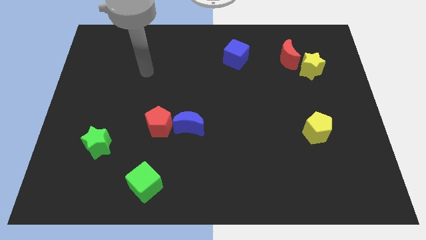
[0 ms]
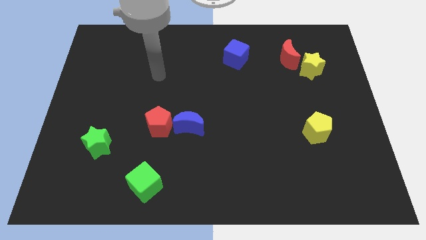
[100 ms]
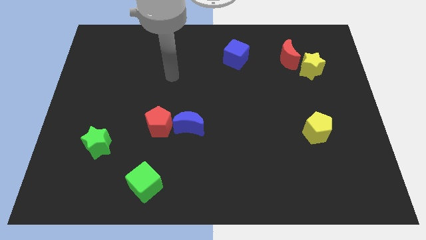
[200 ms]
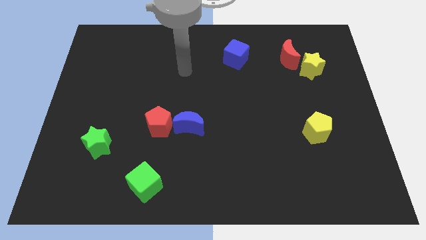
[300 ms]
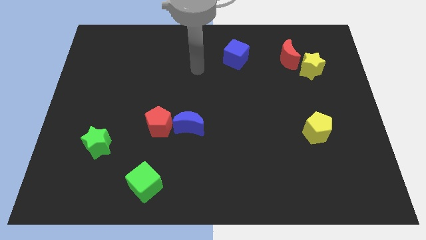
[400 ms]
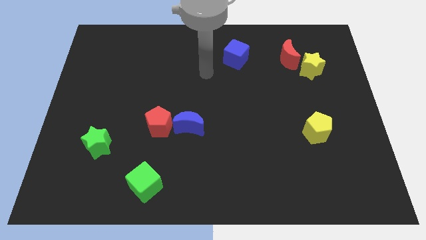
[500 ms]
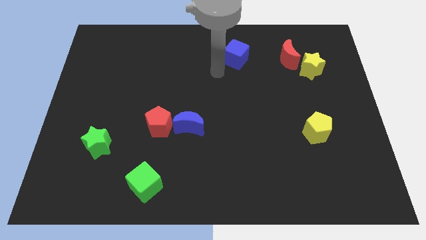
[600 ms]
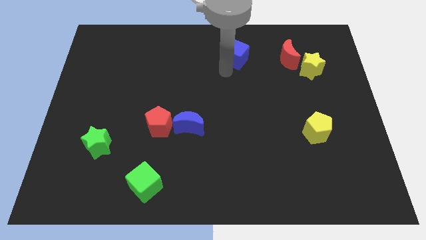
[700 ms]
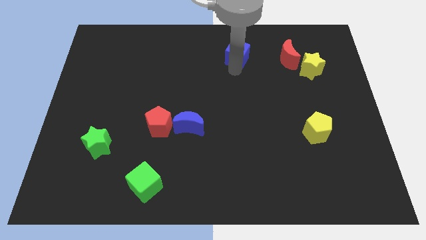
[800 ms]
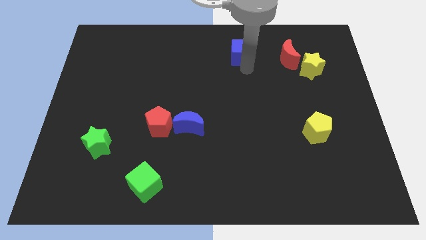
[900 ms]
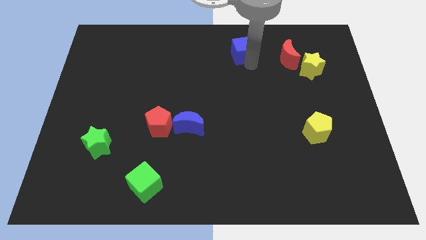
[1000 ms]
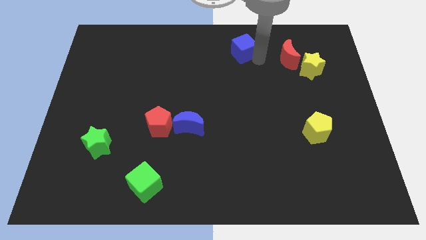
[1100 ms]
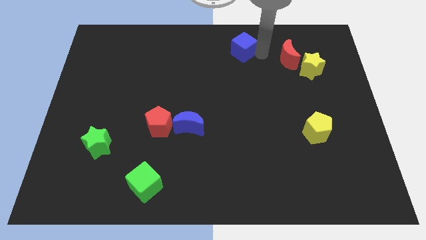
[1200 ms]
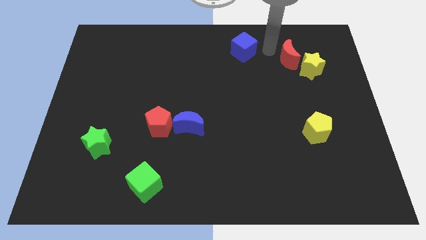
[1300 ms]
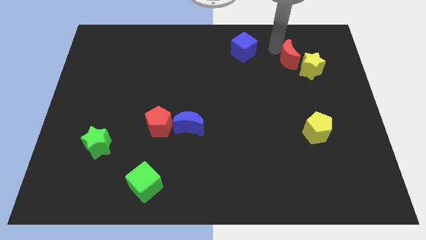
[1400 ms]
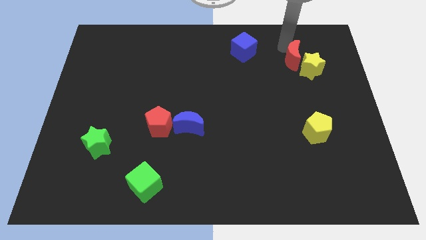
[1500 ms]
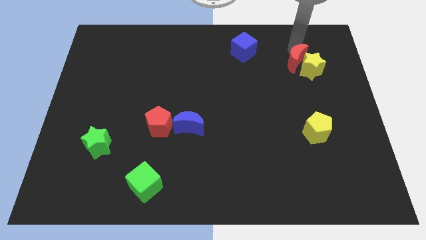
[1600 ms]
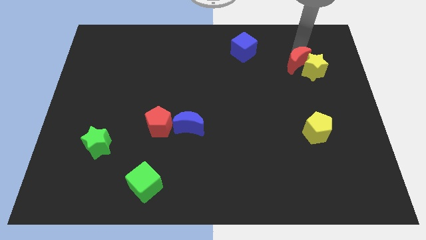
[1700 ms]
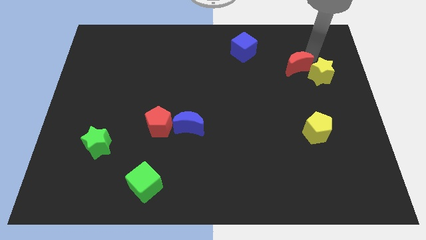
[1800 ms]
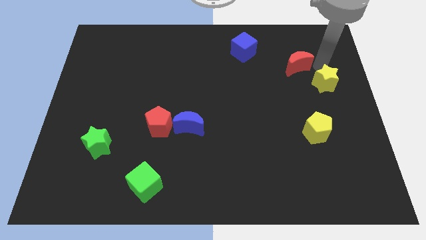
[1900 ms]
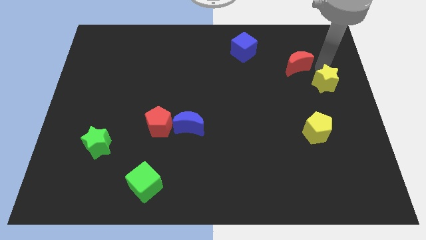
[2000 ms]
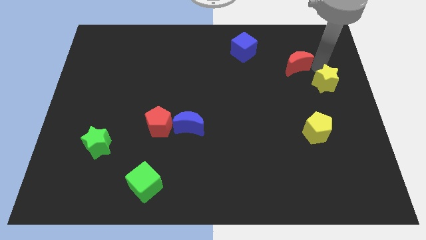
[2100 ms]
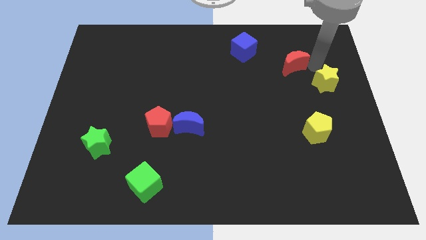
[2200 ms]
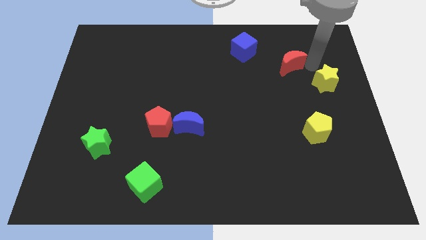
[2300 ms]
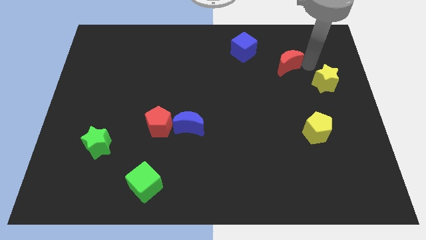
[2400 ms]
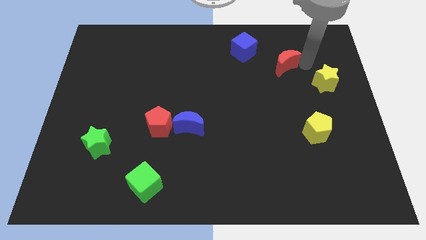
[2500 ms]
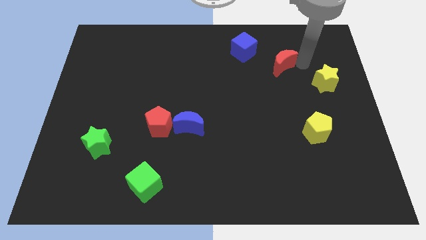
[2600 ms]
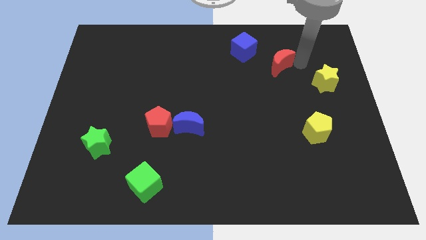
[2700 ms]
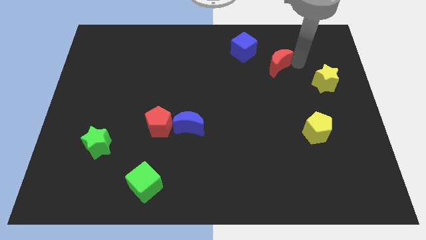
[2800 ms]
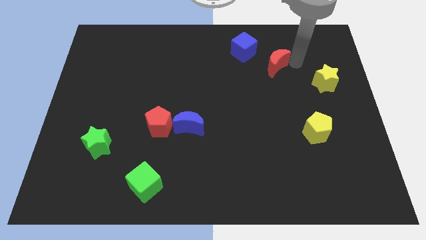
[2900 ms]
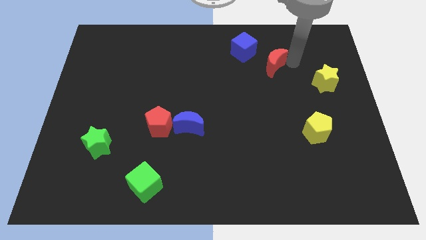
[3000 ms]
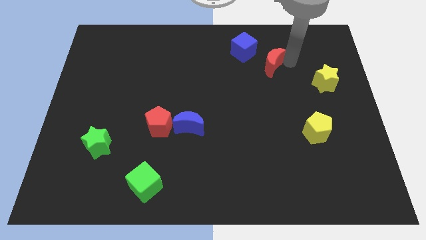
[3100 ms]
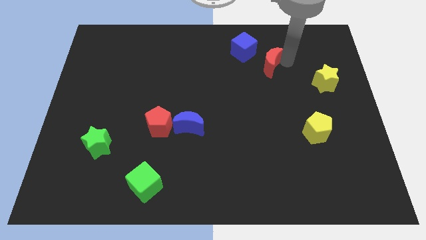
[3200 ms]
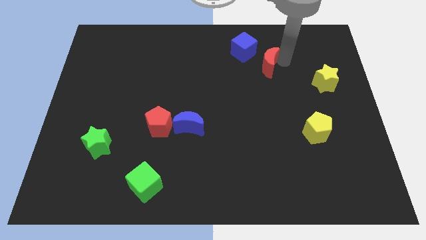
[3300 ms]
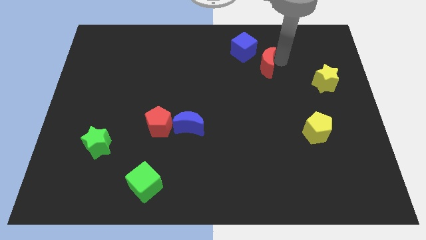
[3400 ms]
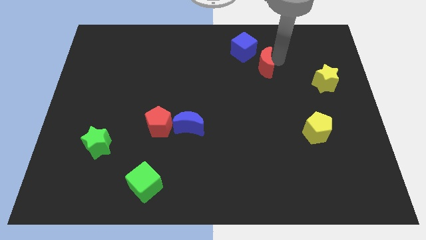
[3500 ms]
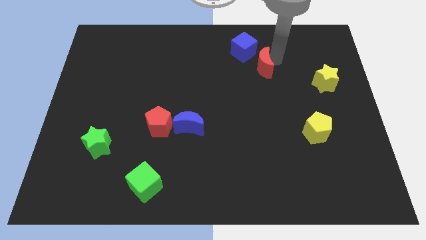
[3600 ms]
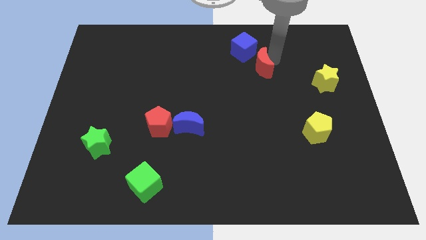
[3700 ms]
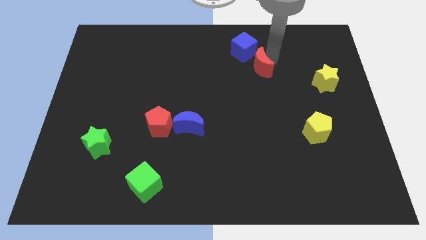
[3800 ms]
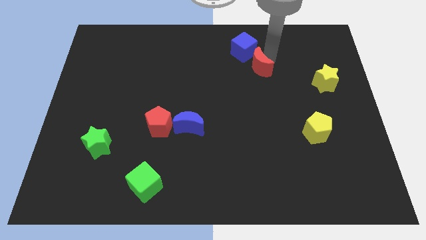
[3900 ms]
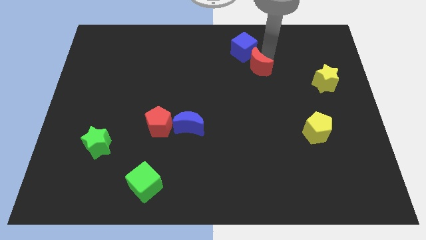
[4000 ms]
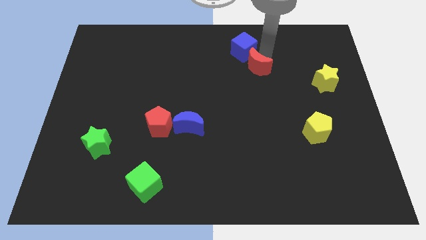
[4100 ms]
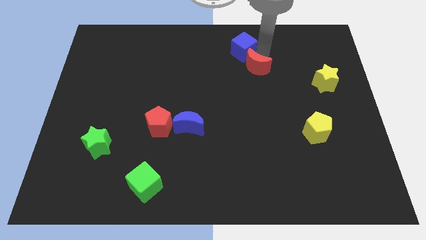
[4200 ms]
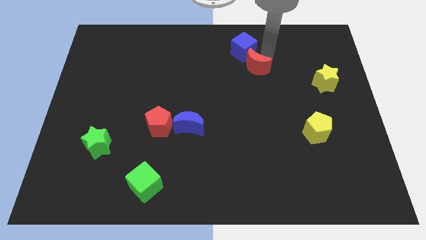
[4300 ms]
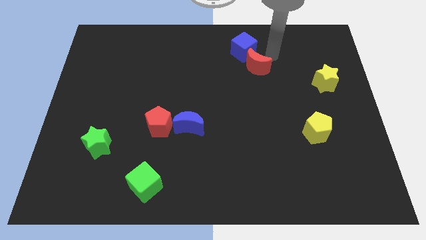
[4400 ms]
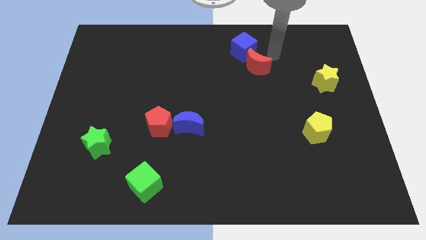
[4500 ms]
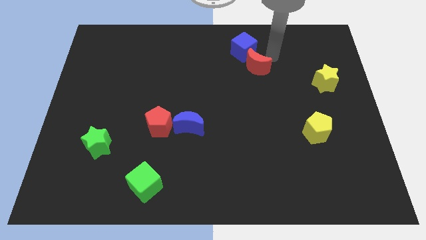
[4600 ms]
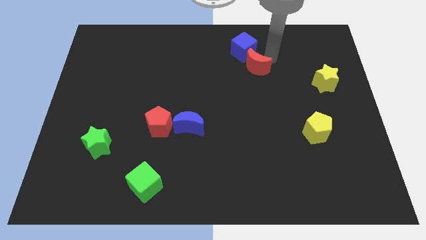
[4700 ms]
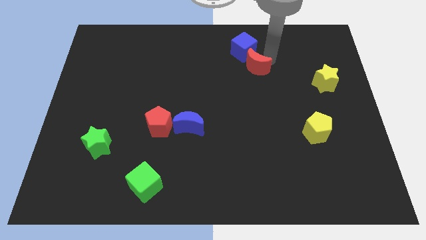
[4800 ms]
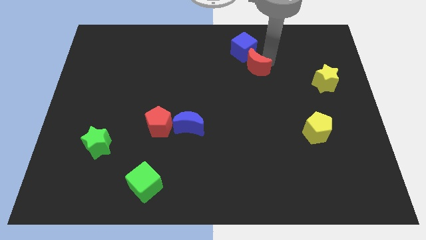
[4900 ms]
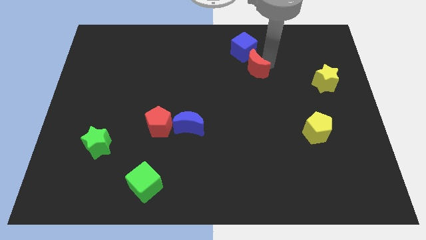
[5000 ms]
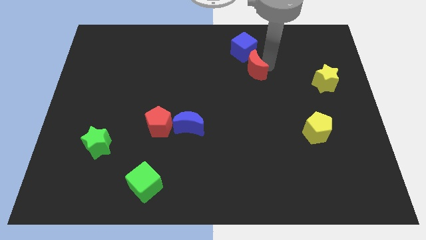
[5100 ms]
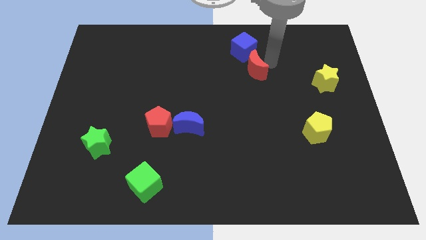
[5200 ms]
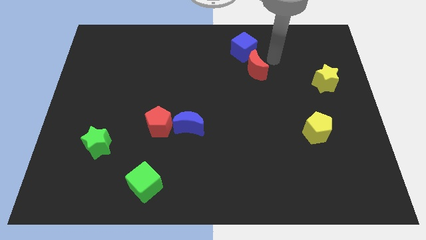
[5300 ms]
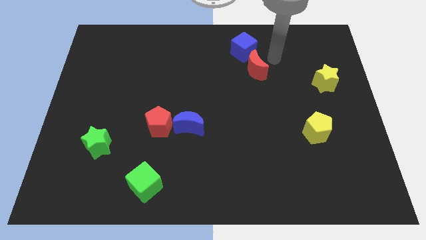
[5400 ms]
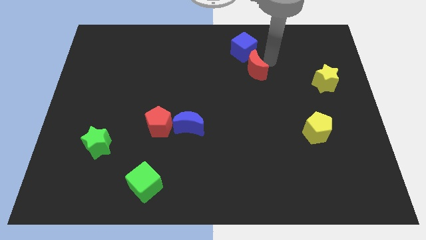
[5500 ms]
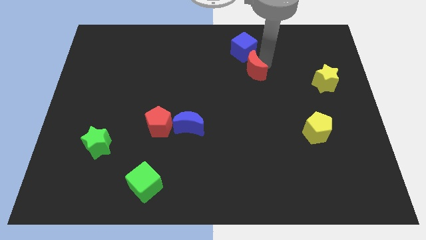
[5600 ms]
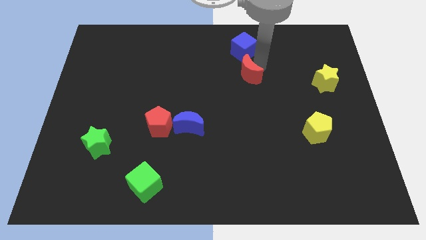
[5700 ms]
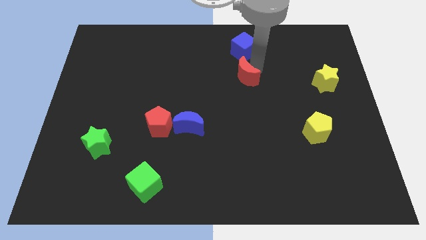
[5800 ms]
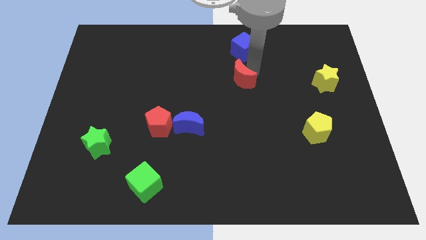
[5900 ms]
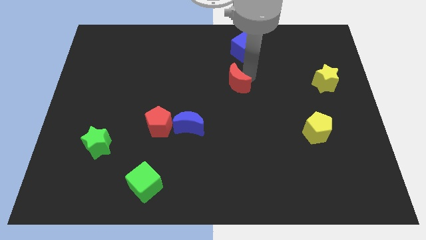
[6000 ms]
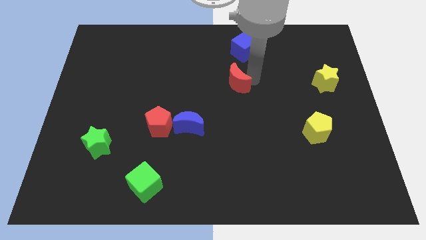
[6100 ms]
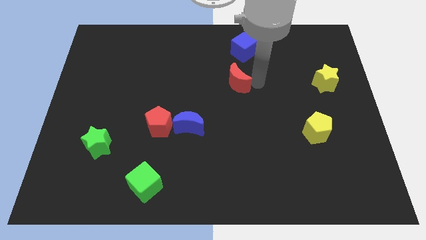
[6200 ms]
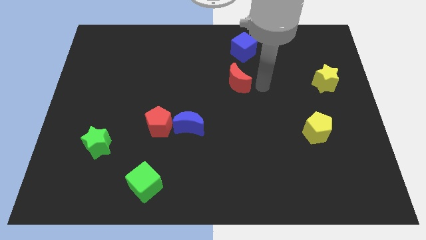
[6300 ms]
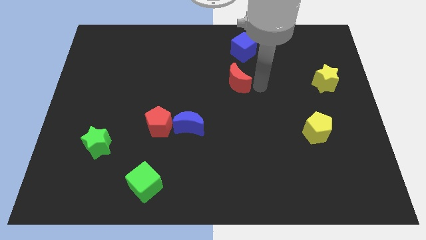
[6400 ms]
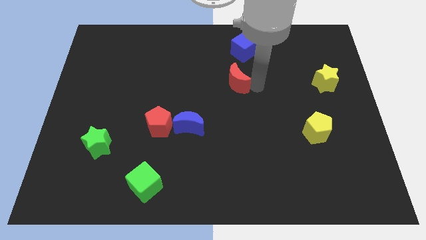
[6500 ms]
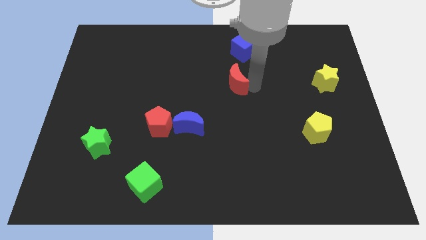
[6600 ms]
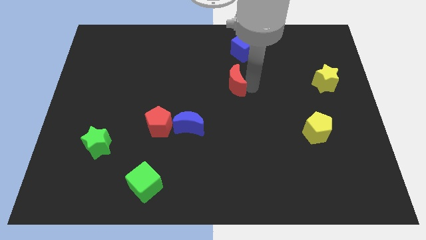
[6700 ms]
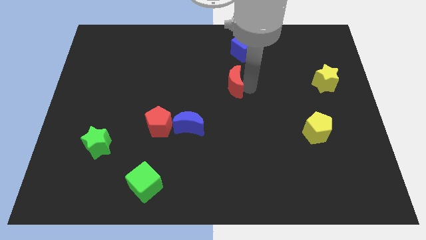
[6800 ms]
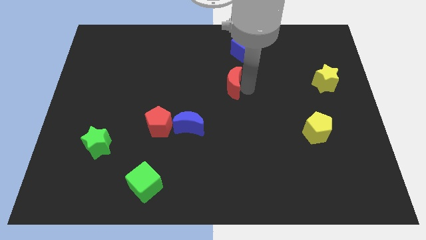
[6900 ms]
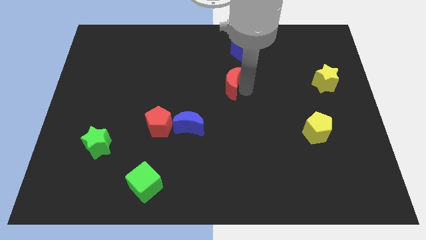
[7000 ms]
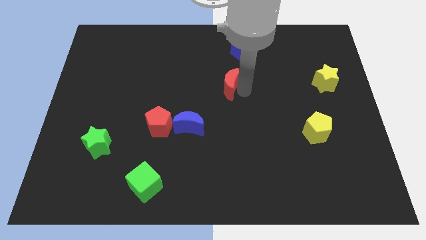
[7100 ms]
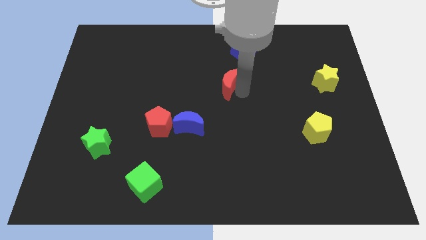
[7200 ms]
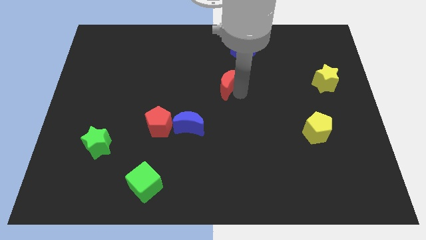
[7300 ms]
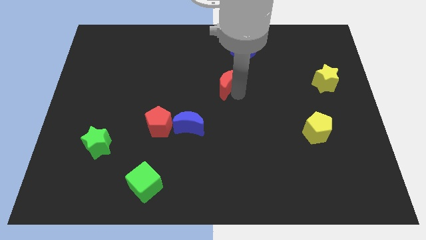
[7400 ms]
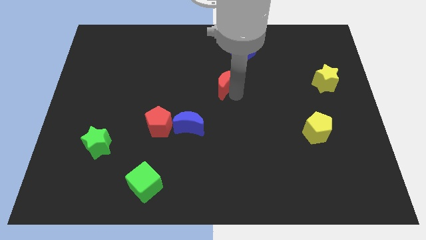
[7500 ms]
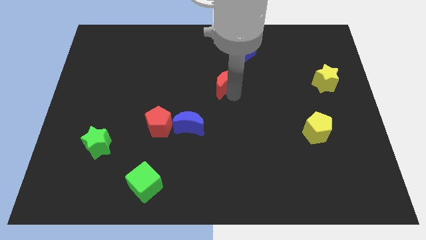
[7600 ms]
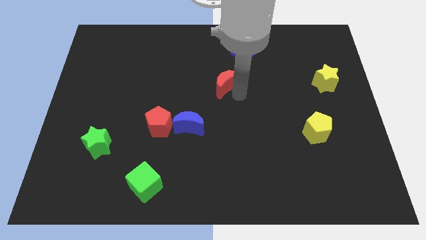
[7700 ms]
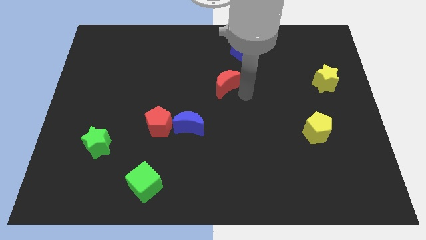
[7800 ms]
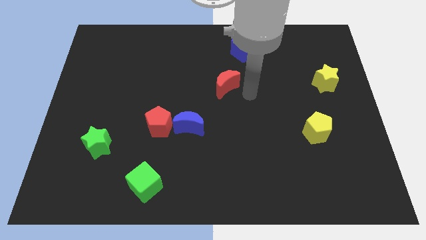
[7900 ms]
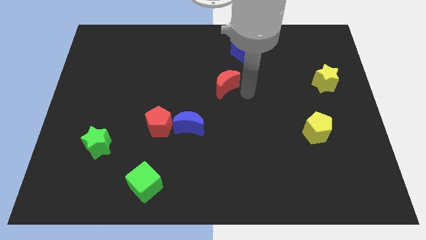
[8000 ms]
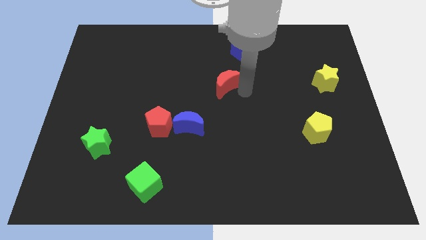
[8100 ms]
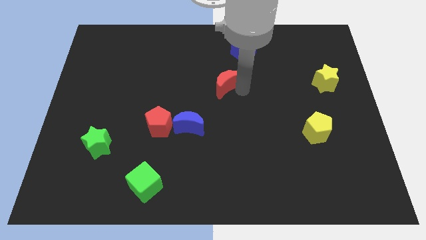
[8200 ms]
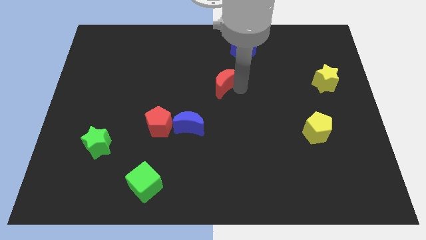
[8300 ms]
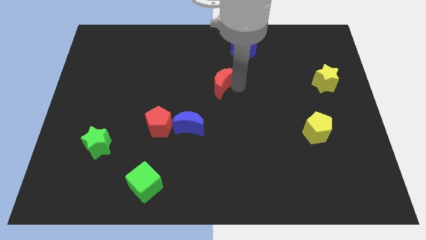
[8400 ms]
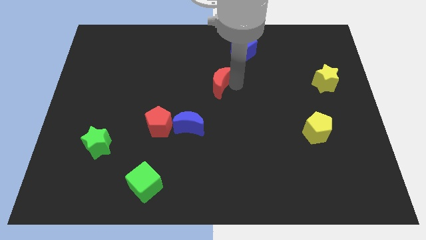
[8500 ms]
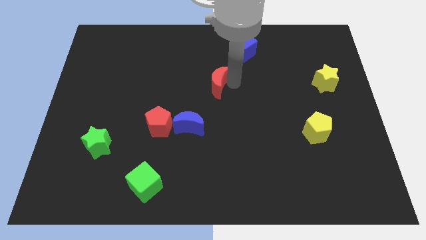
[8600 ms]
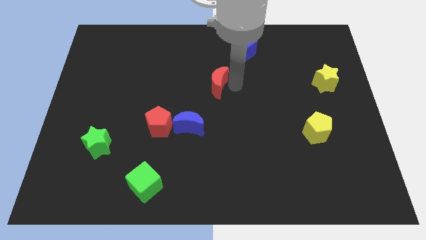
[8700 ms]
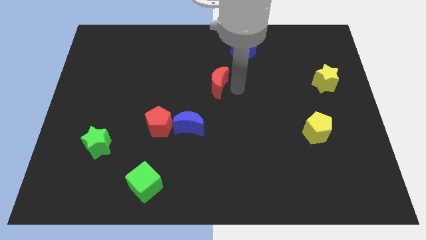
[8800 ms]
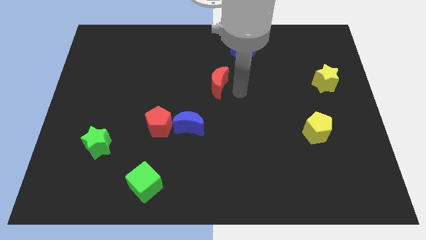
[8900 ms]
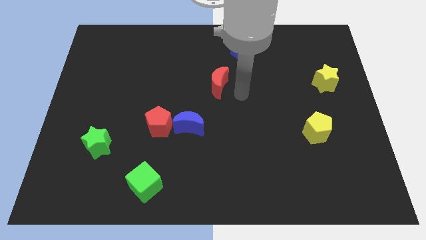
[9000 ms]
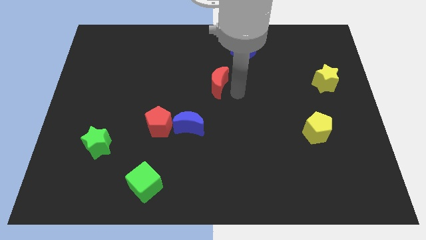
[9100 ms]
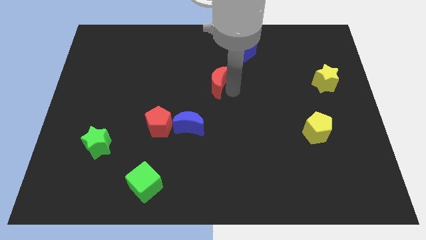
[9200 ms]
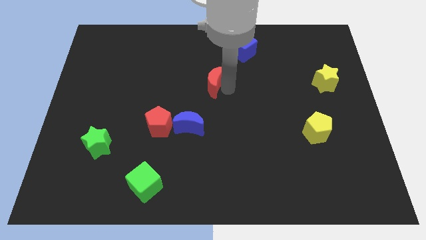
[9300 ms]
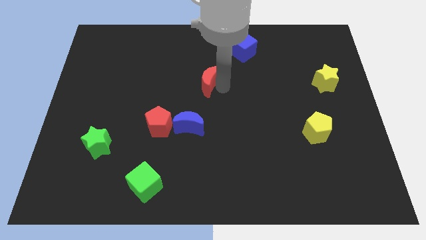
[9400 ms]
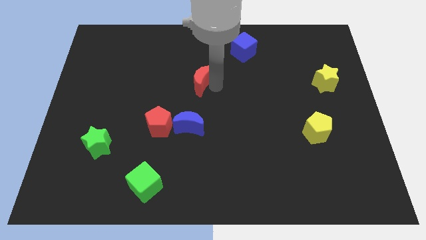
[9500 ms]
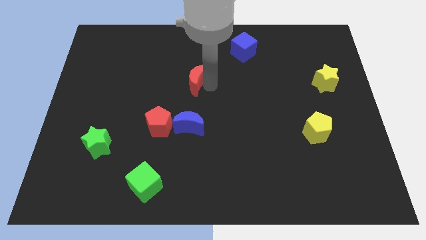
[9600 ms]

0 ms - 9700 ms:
push the red moon to the left
